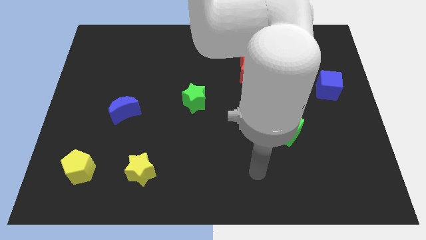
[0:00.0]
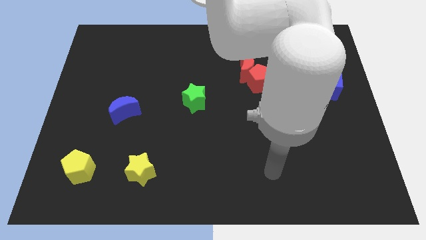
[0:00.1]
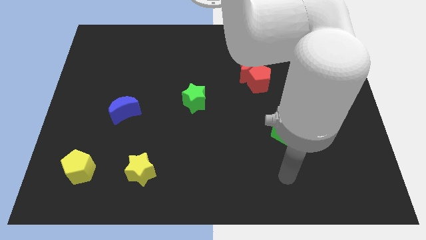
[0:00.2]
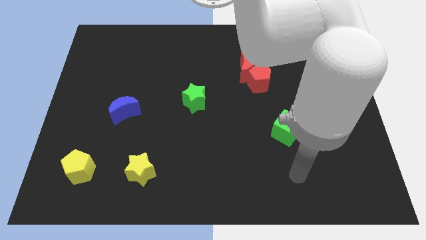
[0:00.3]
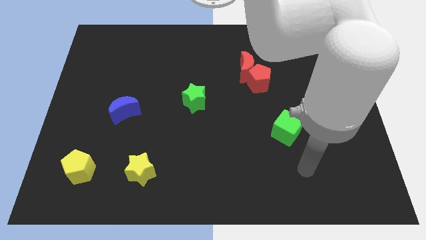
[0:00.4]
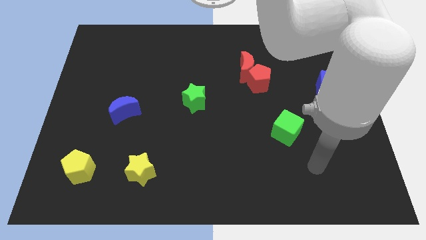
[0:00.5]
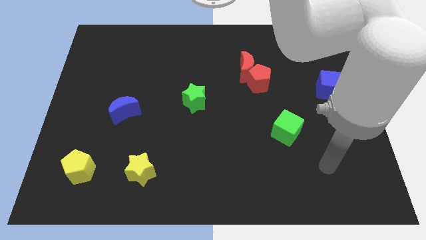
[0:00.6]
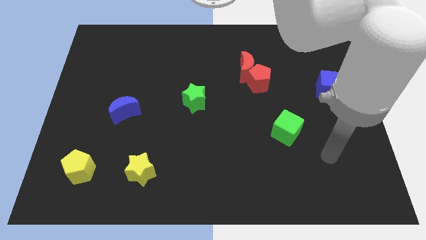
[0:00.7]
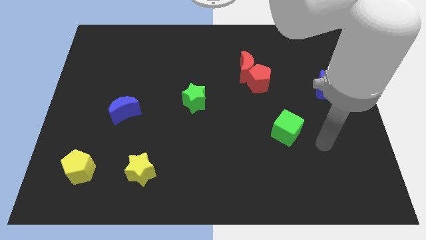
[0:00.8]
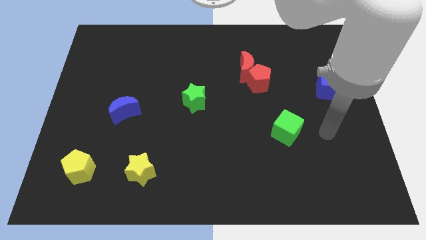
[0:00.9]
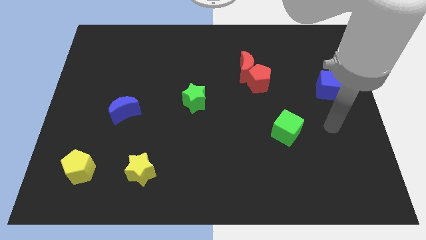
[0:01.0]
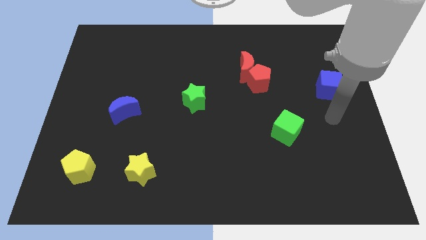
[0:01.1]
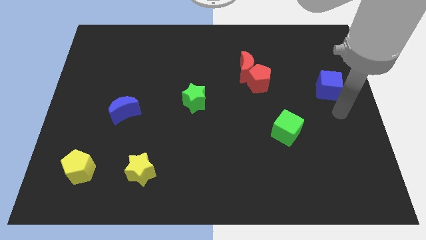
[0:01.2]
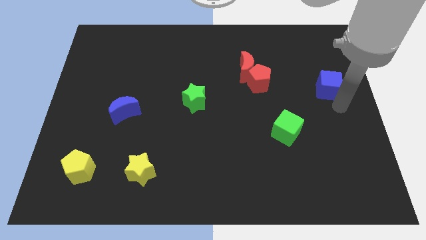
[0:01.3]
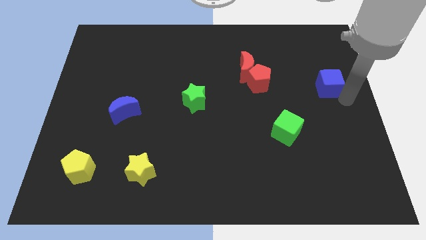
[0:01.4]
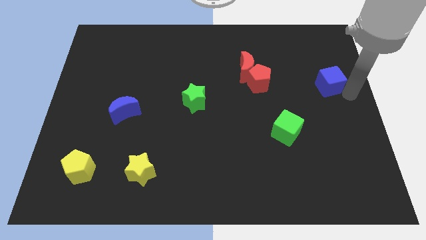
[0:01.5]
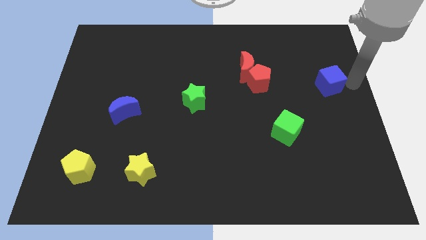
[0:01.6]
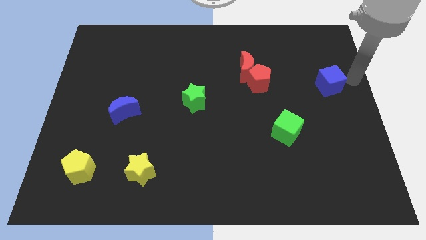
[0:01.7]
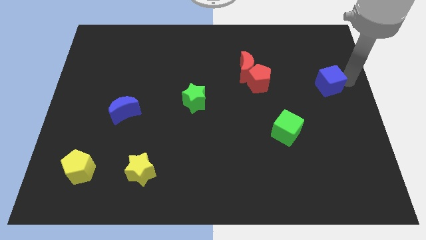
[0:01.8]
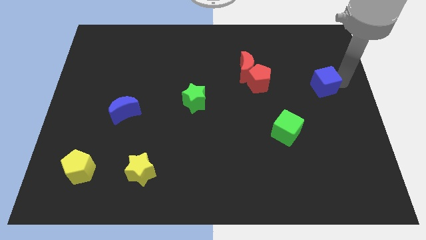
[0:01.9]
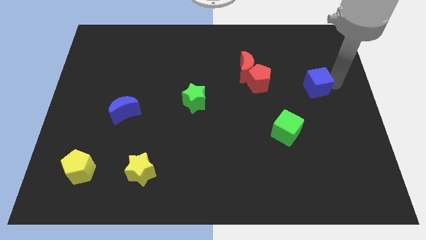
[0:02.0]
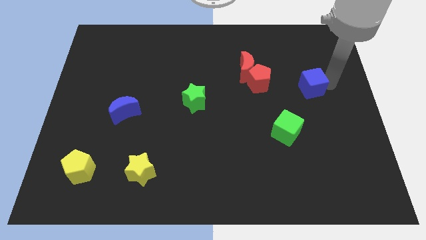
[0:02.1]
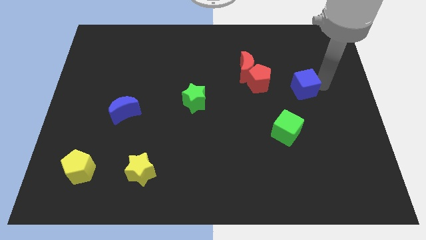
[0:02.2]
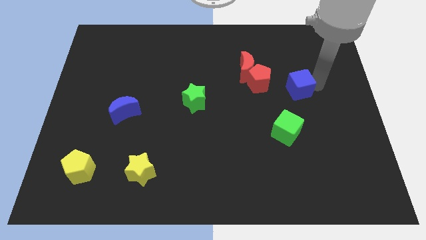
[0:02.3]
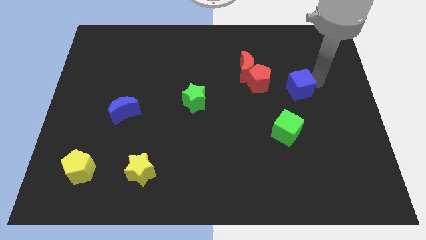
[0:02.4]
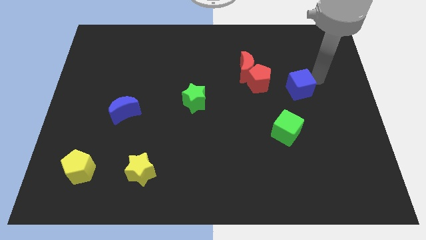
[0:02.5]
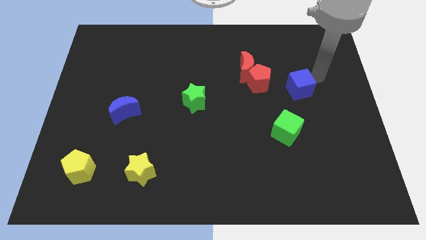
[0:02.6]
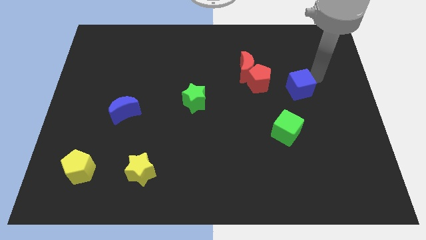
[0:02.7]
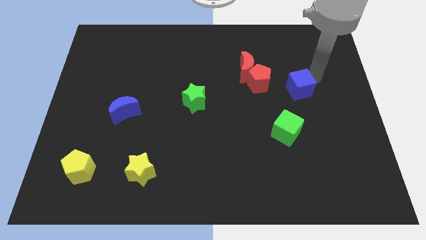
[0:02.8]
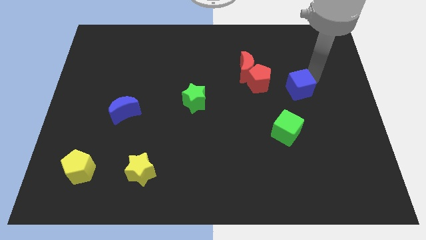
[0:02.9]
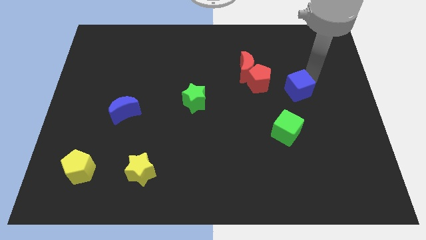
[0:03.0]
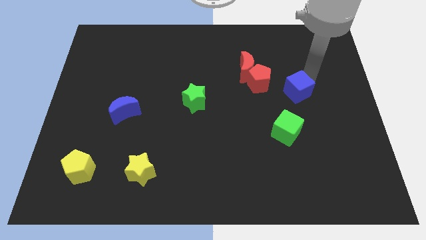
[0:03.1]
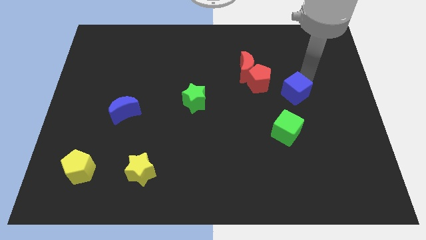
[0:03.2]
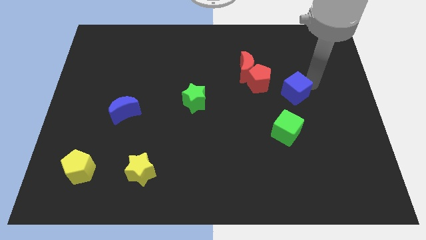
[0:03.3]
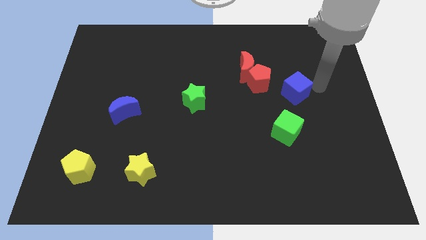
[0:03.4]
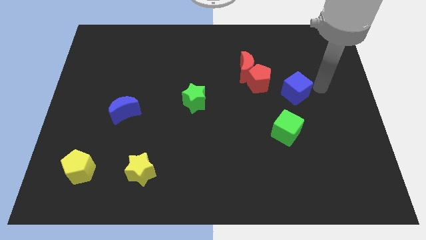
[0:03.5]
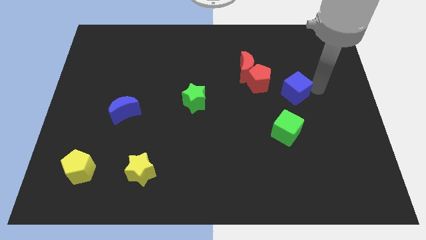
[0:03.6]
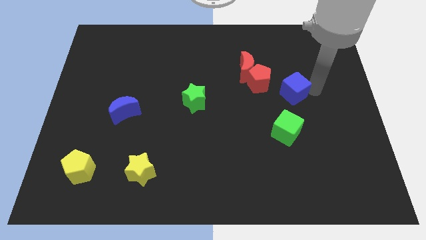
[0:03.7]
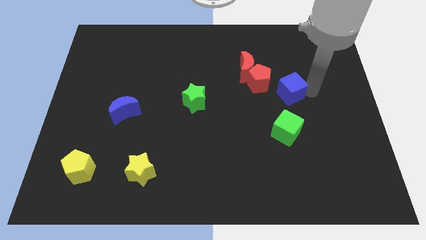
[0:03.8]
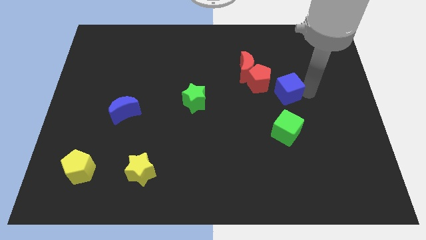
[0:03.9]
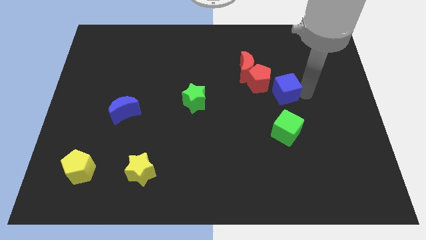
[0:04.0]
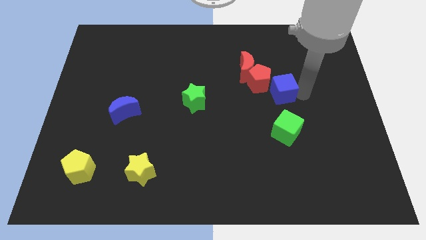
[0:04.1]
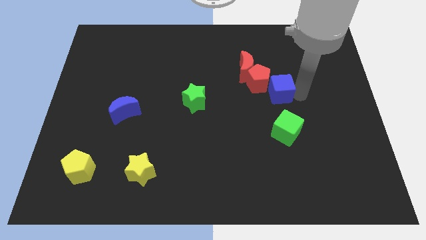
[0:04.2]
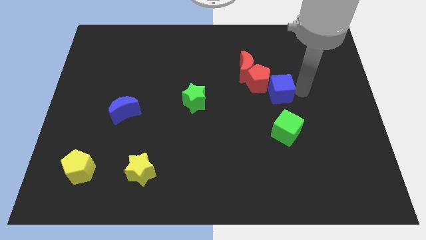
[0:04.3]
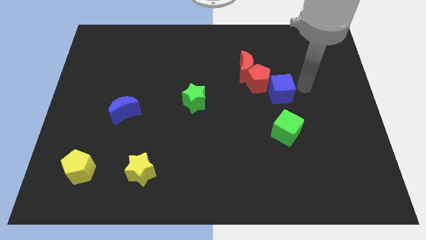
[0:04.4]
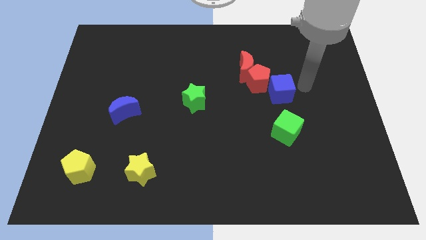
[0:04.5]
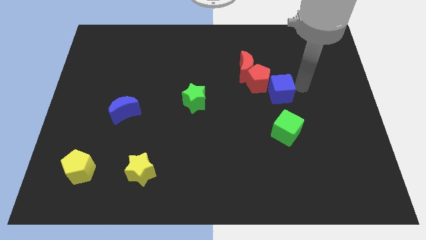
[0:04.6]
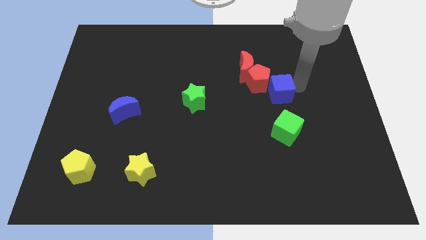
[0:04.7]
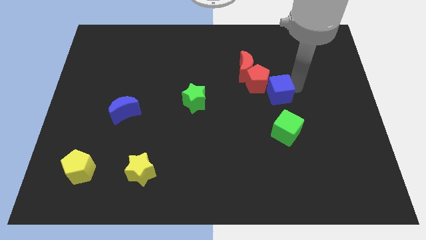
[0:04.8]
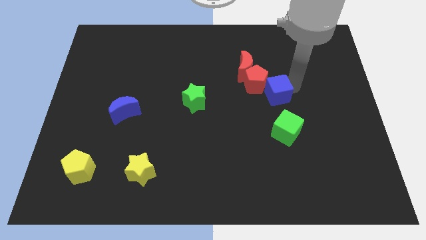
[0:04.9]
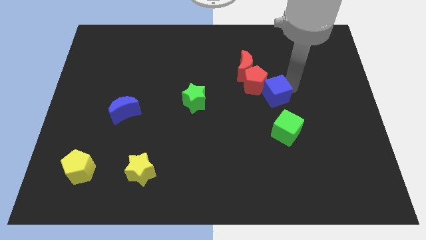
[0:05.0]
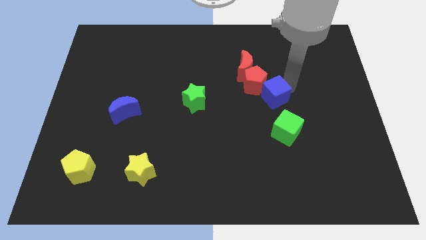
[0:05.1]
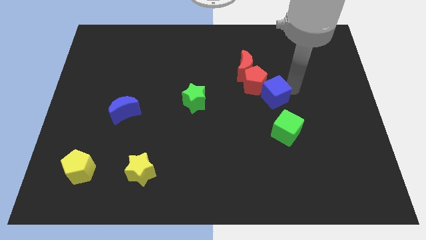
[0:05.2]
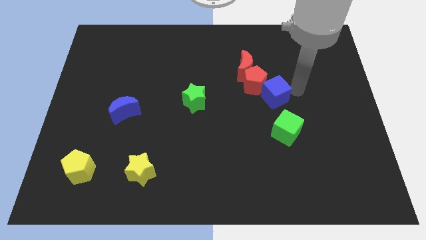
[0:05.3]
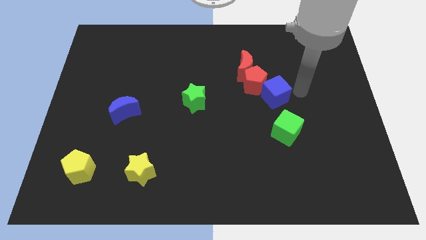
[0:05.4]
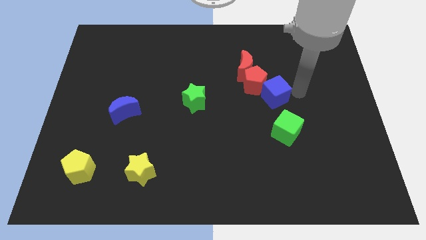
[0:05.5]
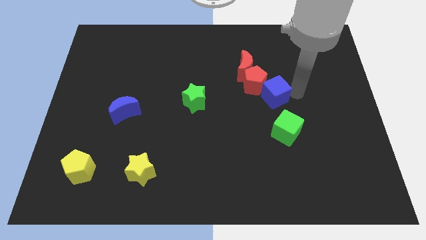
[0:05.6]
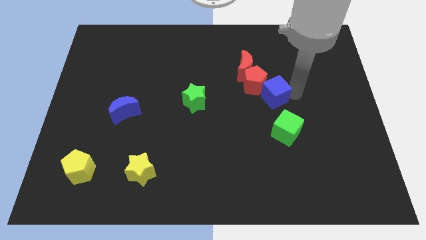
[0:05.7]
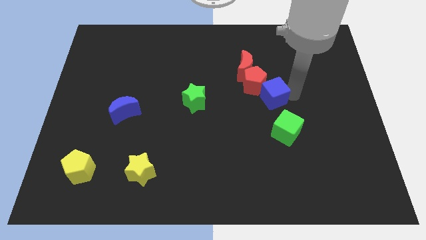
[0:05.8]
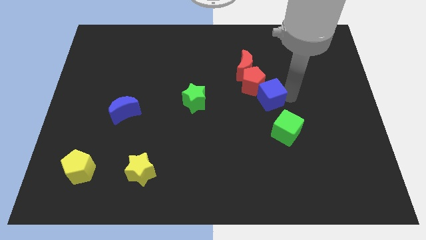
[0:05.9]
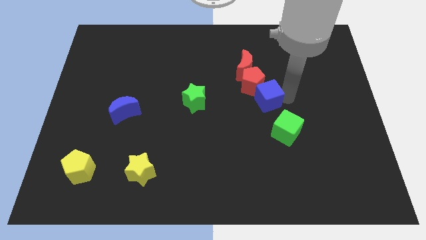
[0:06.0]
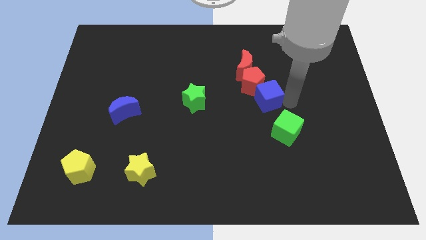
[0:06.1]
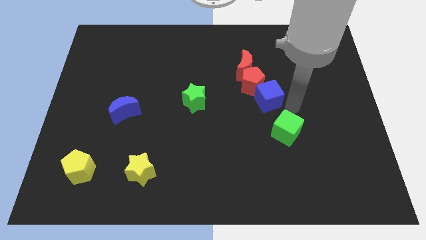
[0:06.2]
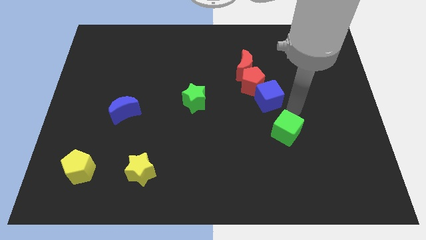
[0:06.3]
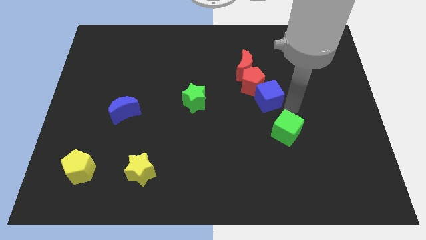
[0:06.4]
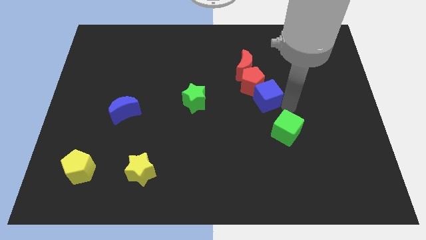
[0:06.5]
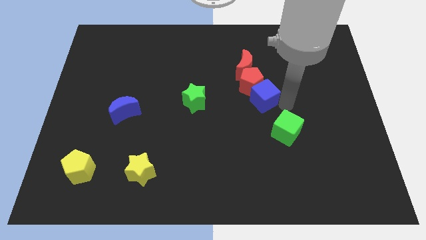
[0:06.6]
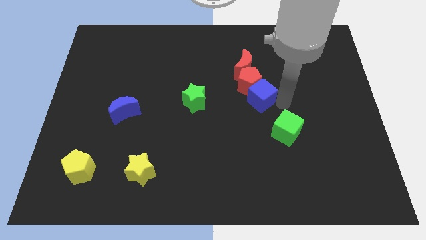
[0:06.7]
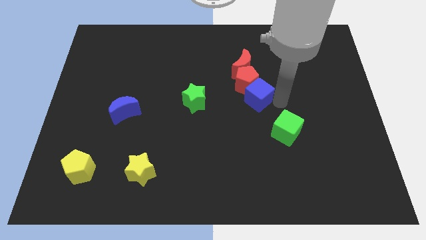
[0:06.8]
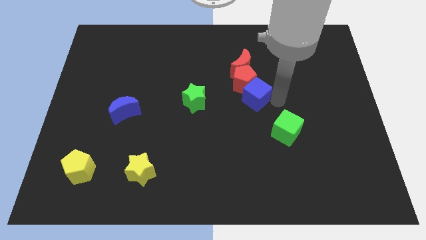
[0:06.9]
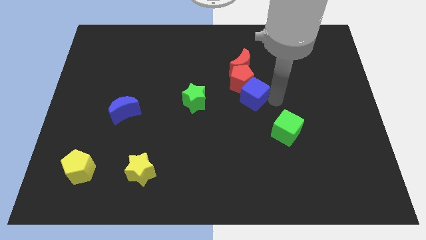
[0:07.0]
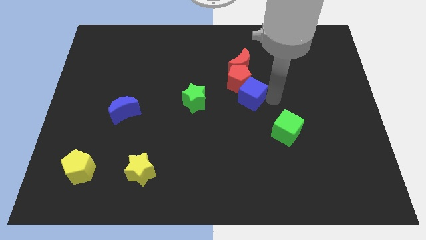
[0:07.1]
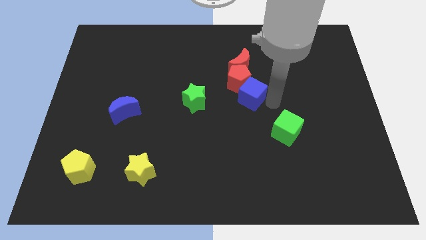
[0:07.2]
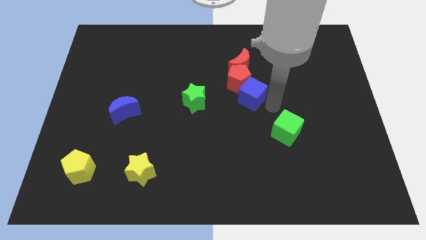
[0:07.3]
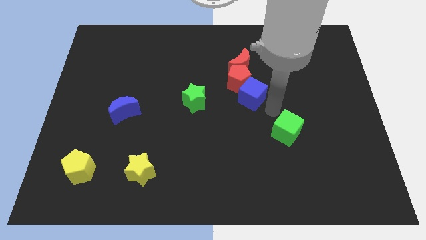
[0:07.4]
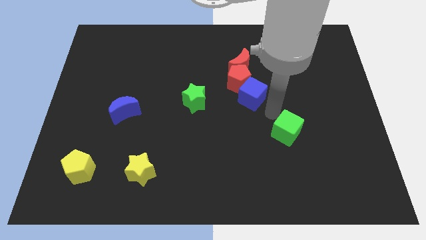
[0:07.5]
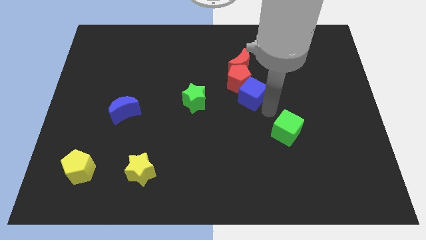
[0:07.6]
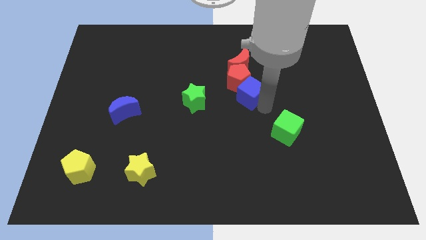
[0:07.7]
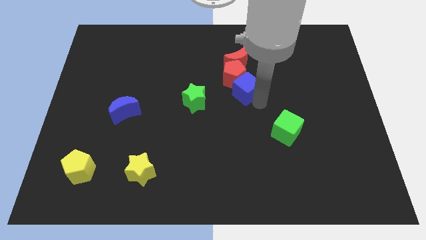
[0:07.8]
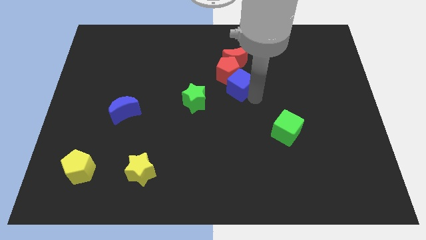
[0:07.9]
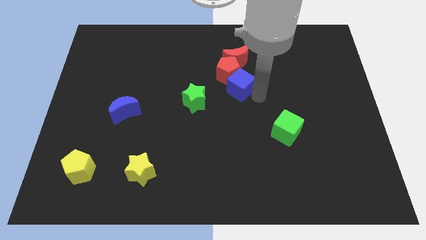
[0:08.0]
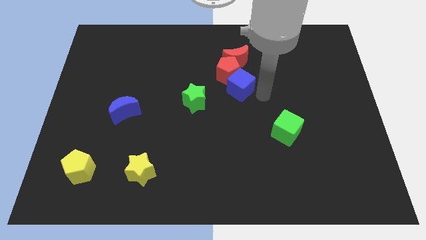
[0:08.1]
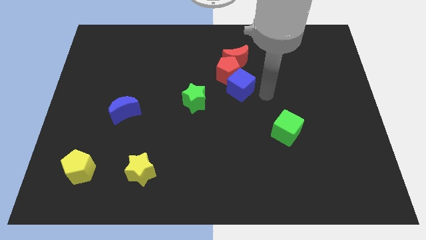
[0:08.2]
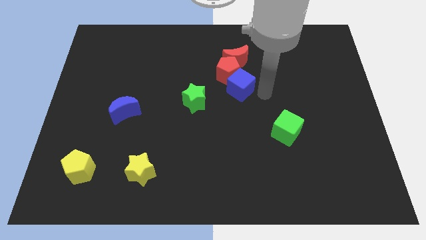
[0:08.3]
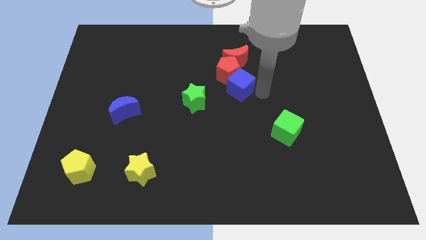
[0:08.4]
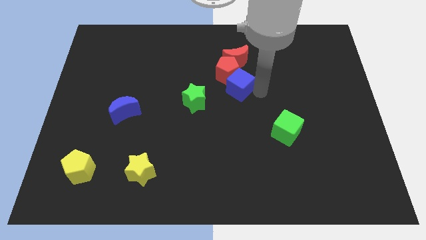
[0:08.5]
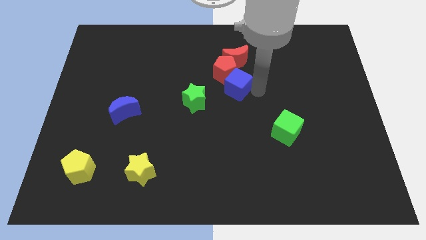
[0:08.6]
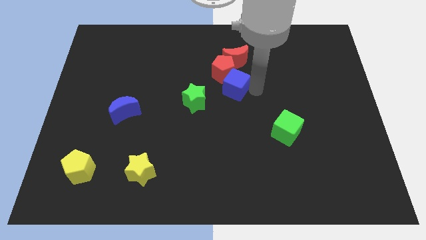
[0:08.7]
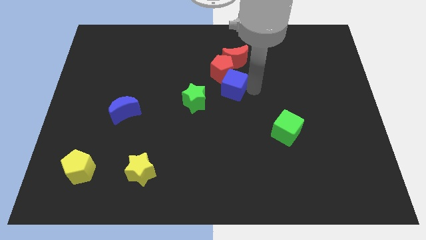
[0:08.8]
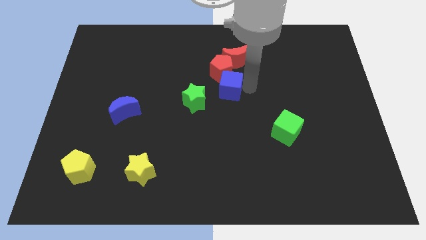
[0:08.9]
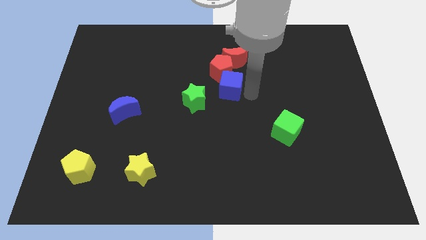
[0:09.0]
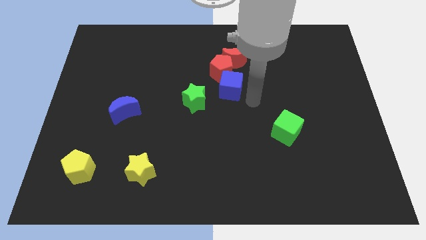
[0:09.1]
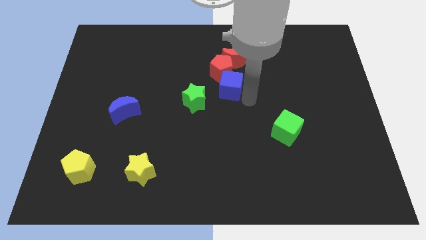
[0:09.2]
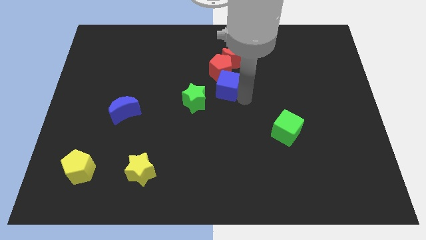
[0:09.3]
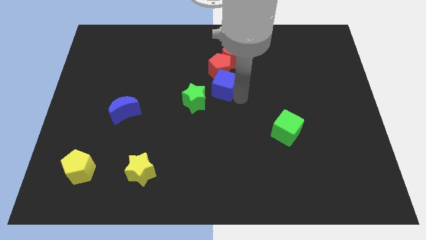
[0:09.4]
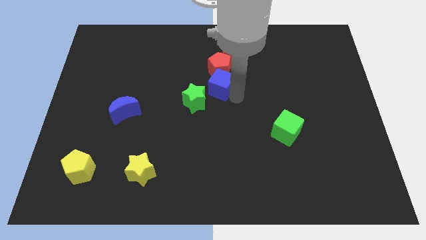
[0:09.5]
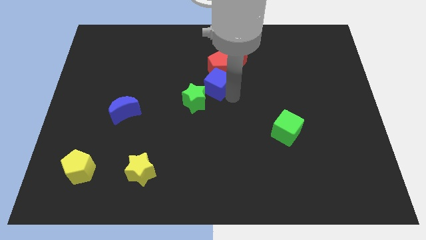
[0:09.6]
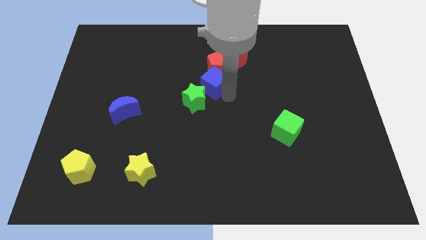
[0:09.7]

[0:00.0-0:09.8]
move the blue cube above the green star
